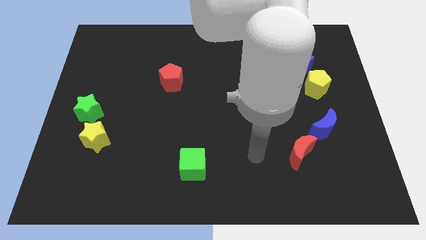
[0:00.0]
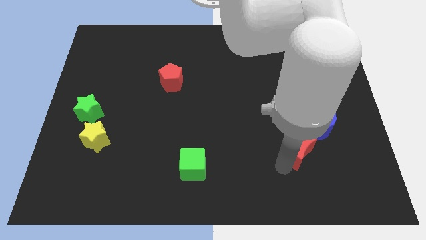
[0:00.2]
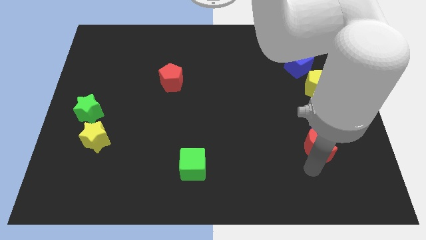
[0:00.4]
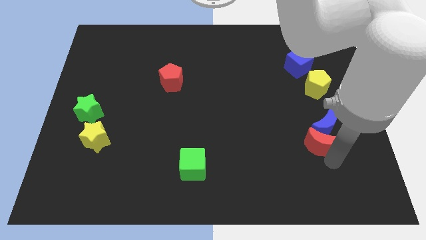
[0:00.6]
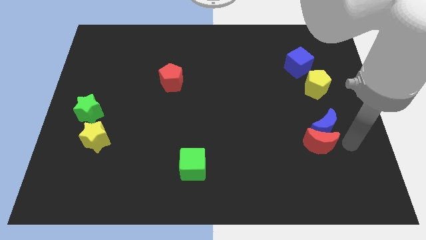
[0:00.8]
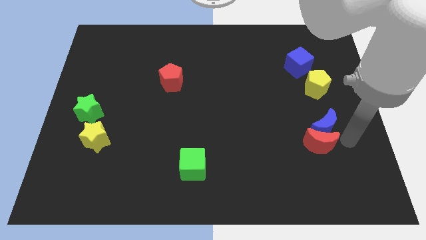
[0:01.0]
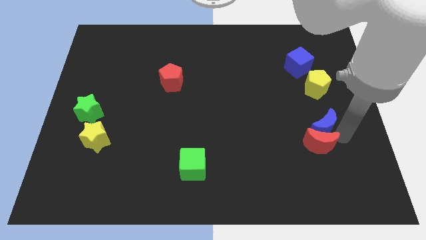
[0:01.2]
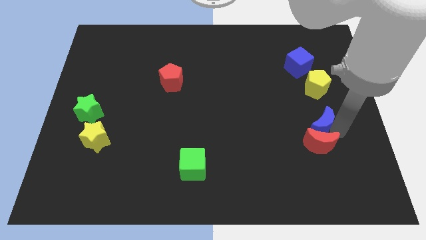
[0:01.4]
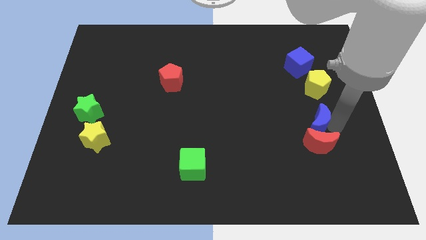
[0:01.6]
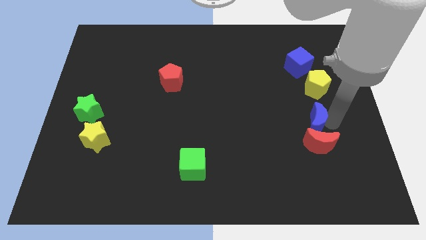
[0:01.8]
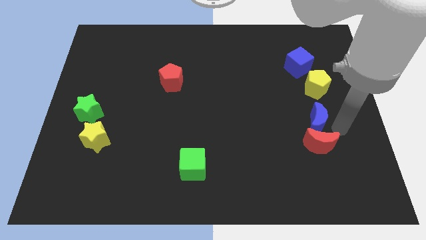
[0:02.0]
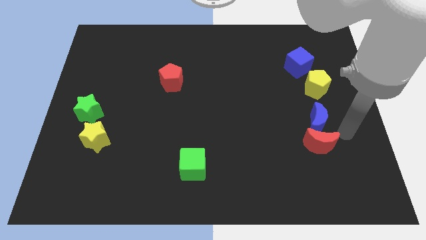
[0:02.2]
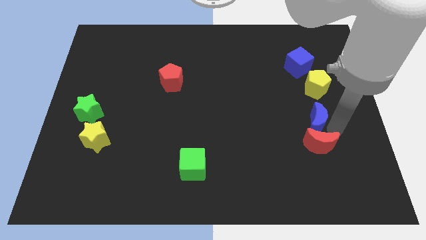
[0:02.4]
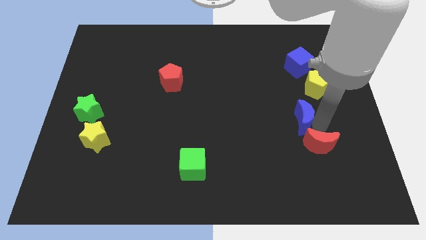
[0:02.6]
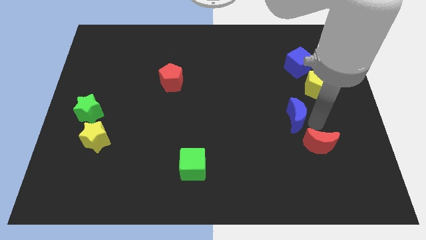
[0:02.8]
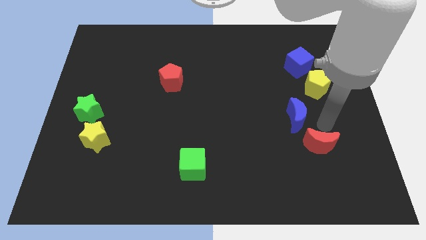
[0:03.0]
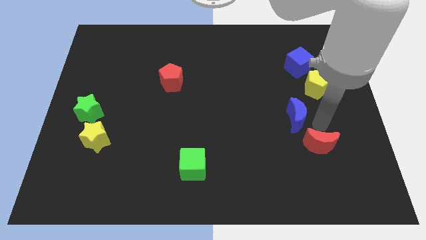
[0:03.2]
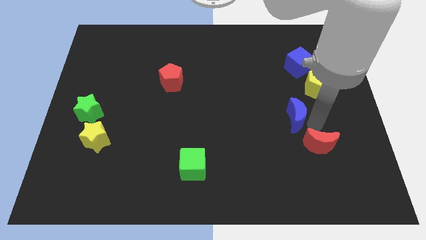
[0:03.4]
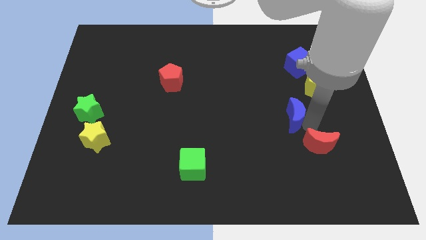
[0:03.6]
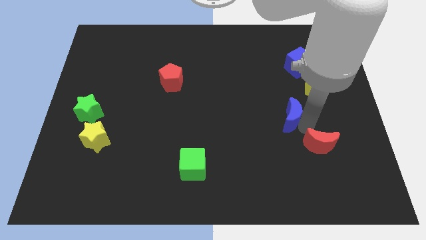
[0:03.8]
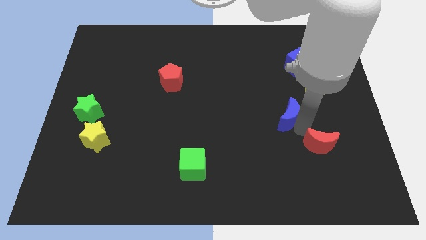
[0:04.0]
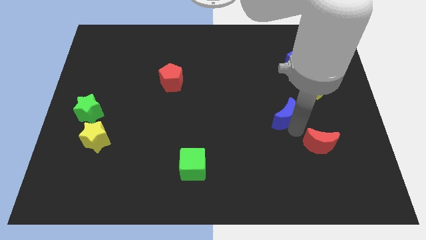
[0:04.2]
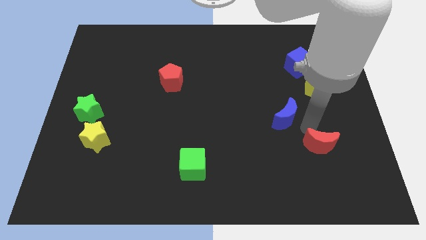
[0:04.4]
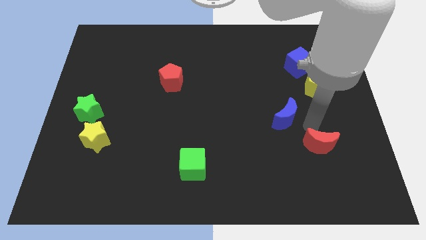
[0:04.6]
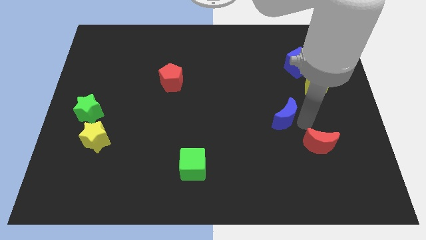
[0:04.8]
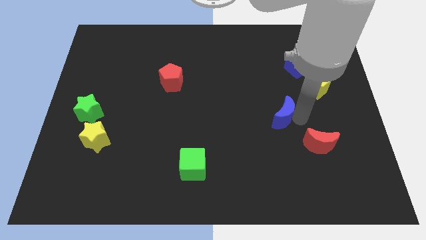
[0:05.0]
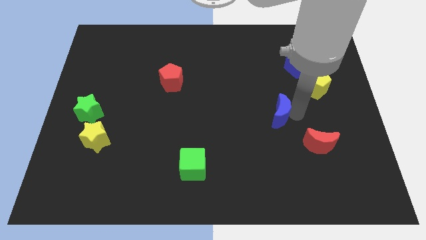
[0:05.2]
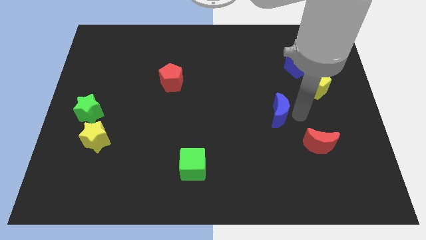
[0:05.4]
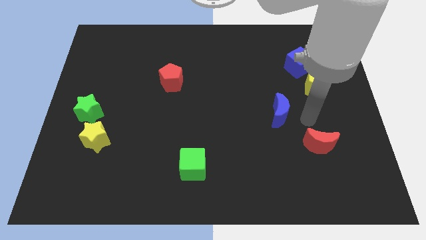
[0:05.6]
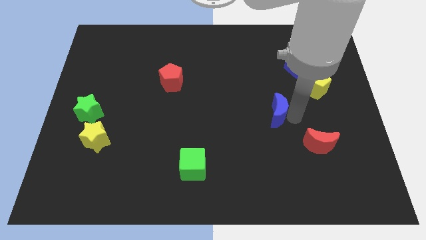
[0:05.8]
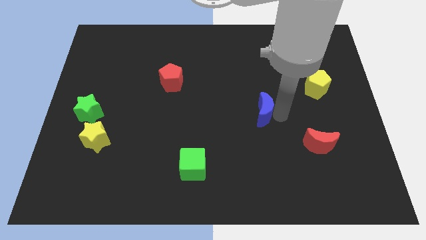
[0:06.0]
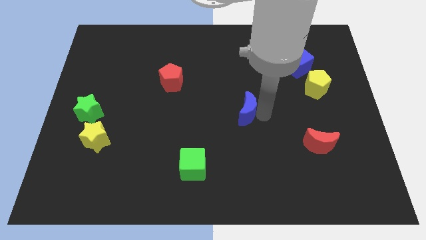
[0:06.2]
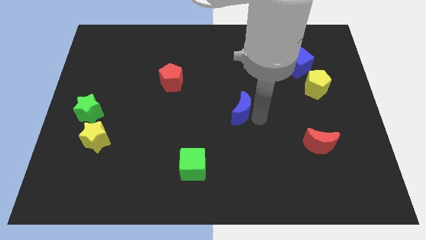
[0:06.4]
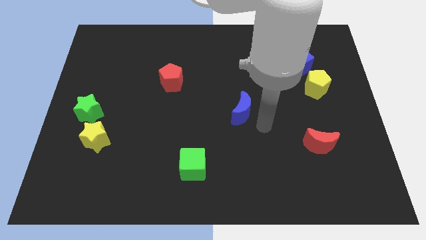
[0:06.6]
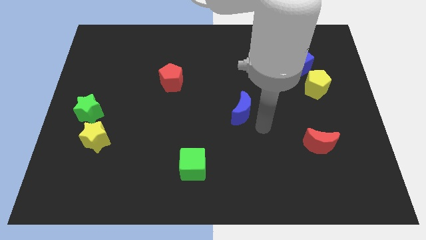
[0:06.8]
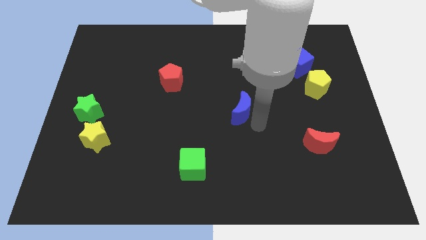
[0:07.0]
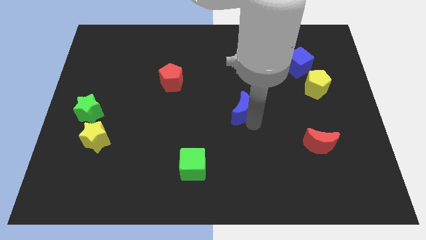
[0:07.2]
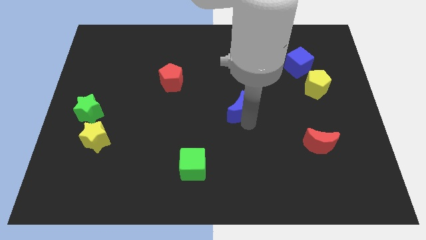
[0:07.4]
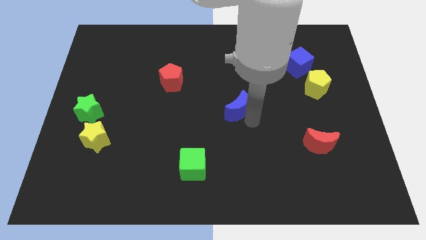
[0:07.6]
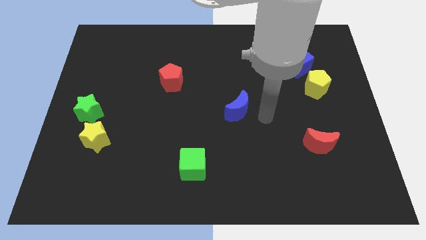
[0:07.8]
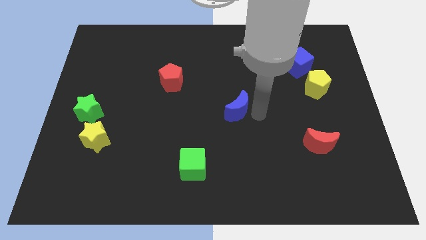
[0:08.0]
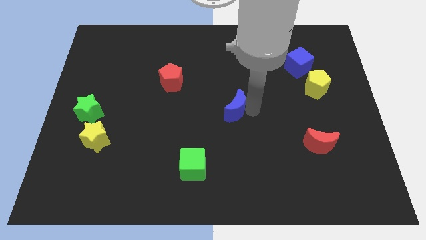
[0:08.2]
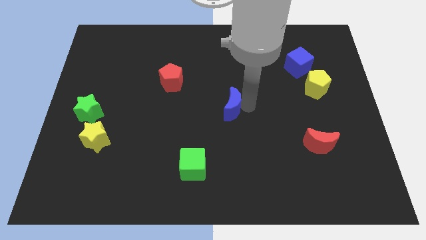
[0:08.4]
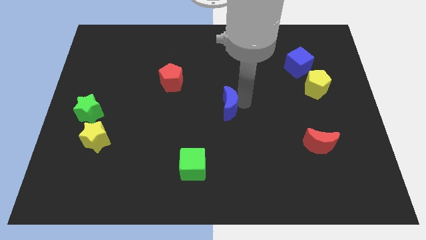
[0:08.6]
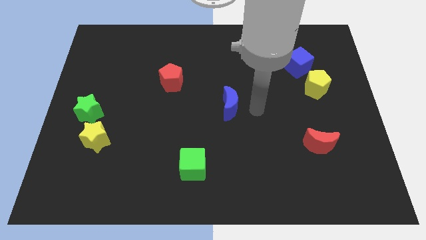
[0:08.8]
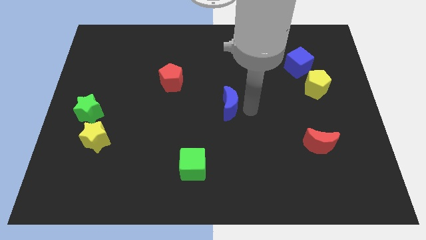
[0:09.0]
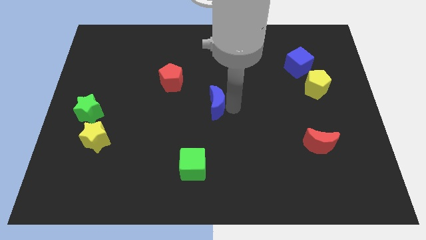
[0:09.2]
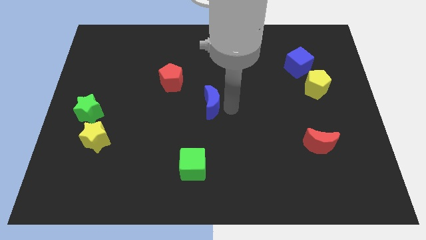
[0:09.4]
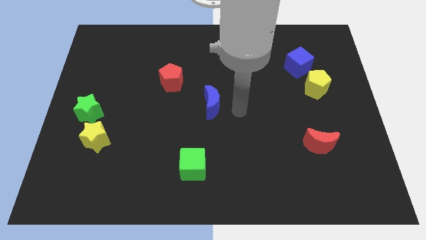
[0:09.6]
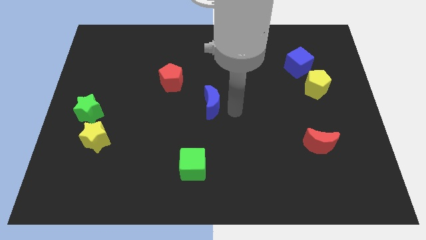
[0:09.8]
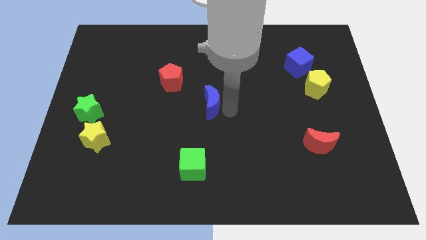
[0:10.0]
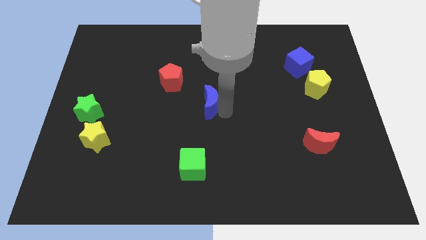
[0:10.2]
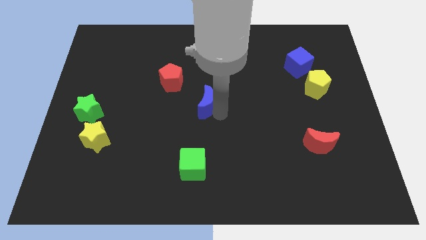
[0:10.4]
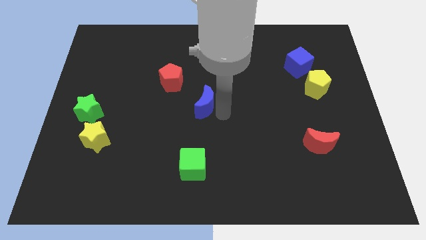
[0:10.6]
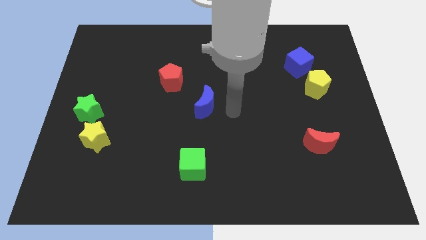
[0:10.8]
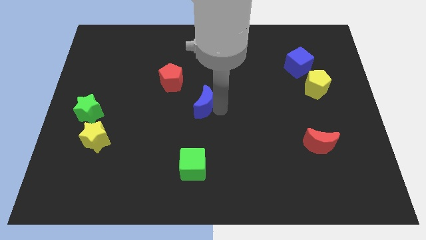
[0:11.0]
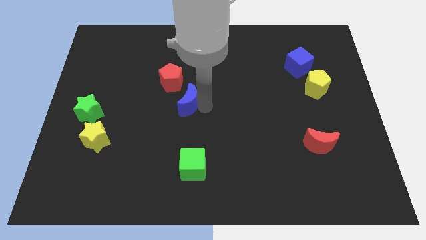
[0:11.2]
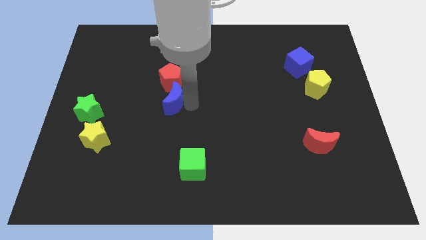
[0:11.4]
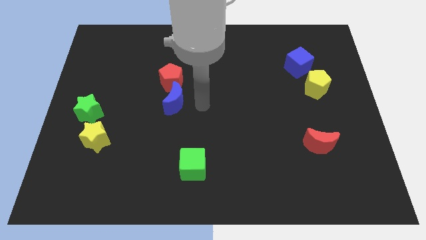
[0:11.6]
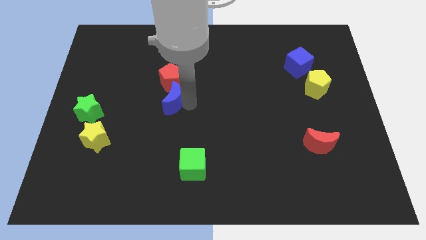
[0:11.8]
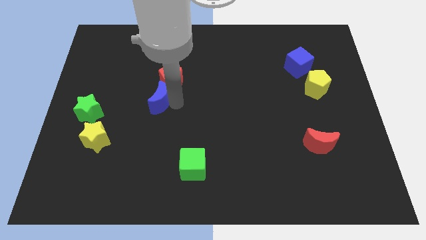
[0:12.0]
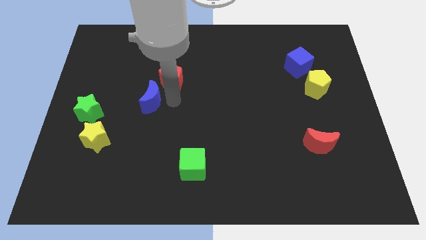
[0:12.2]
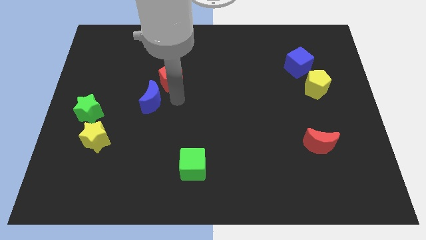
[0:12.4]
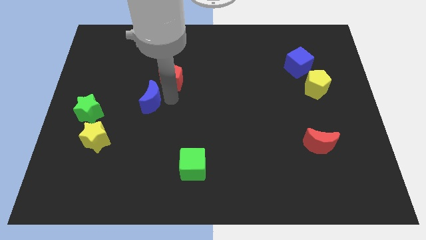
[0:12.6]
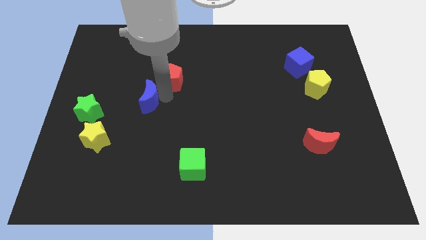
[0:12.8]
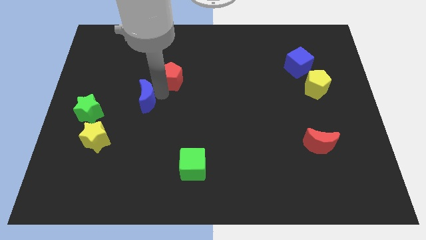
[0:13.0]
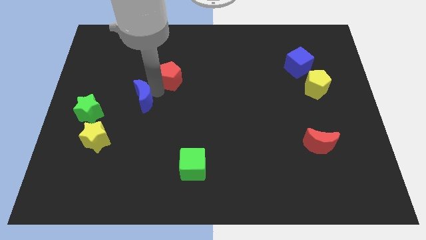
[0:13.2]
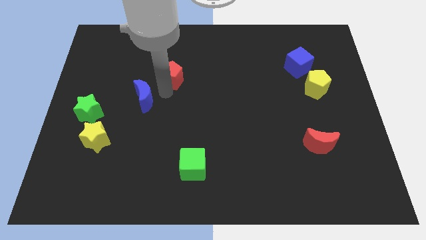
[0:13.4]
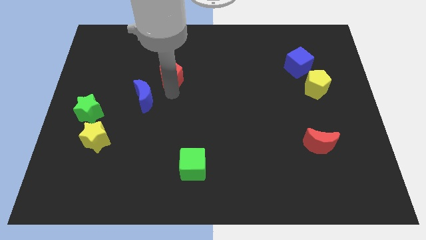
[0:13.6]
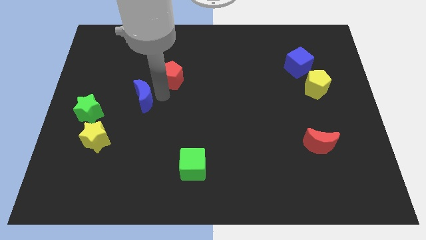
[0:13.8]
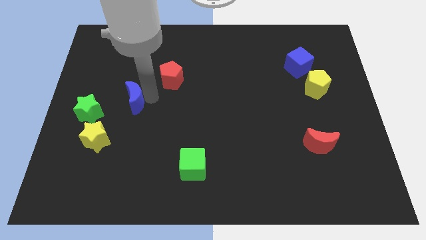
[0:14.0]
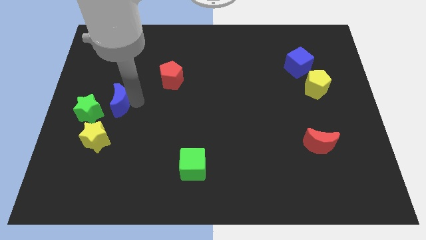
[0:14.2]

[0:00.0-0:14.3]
move the blue moon to the top side of the yellow star
